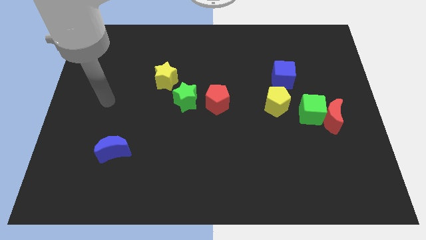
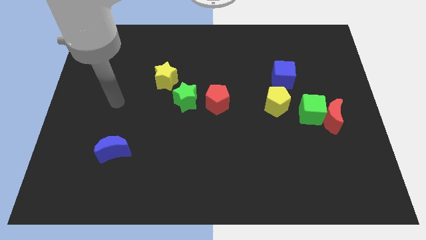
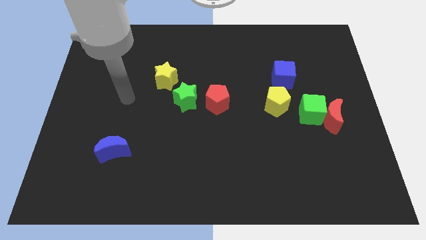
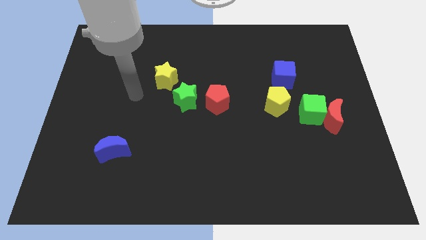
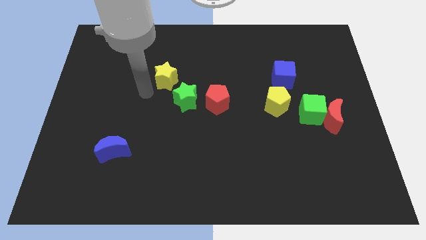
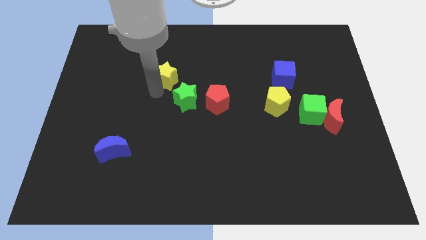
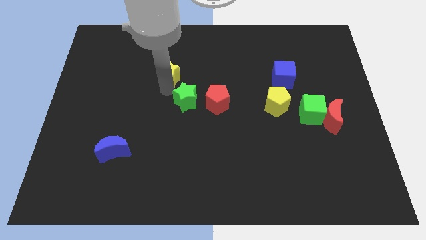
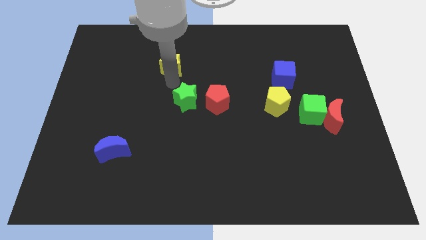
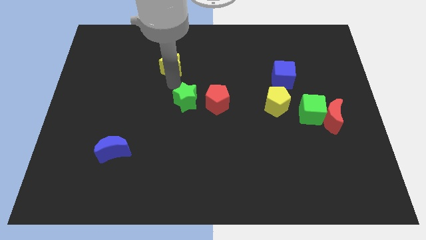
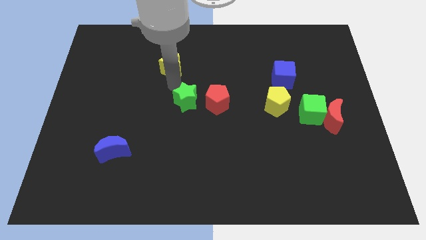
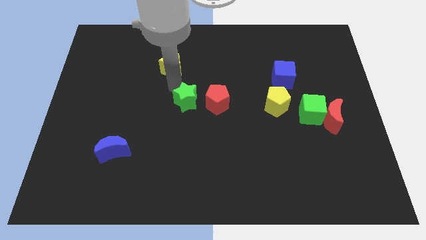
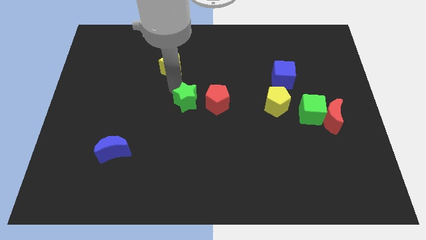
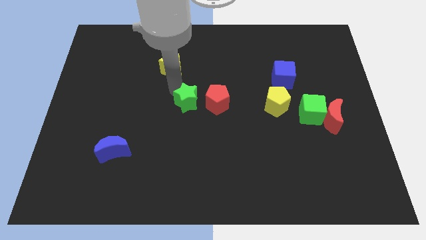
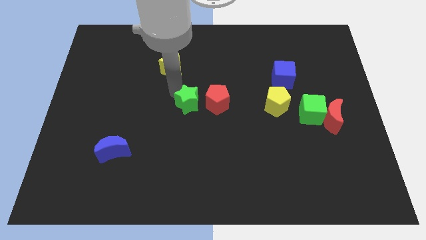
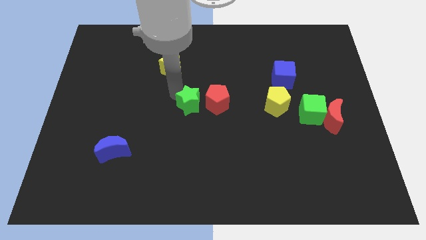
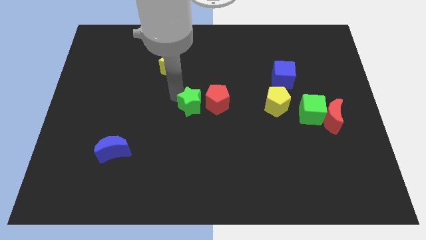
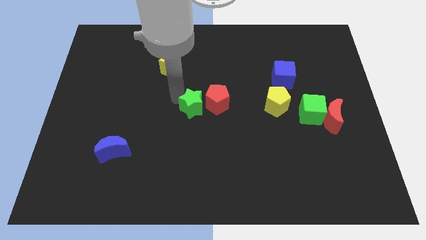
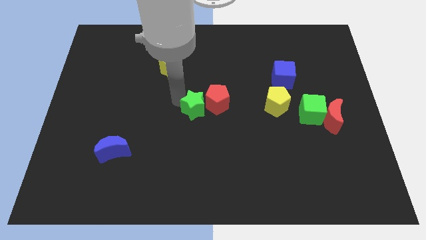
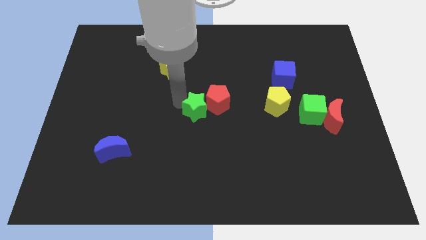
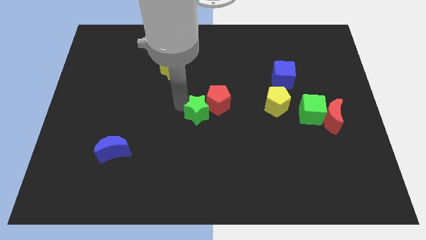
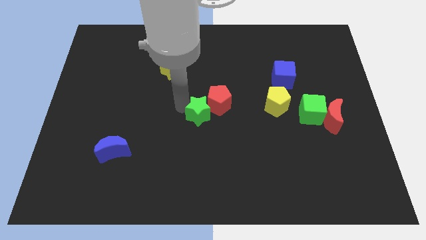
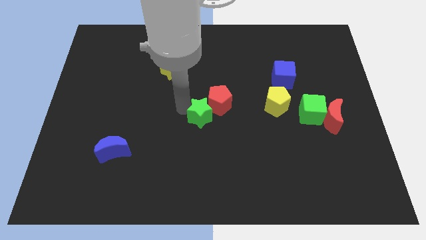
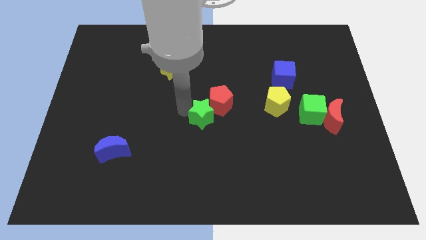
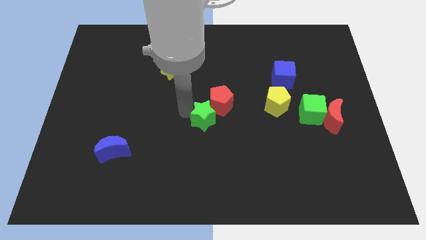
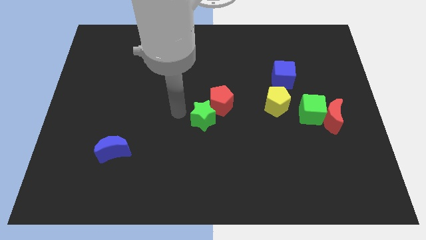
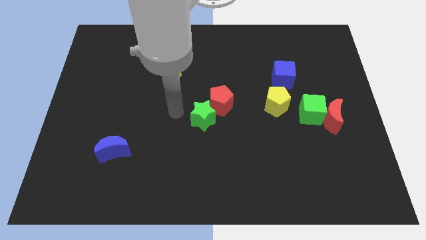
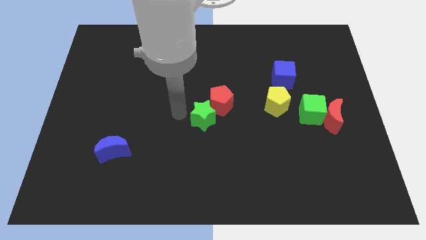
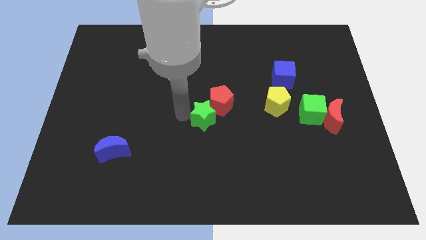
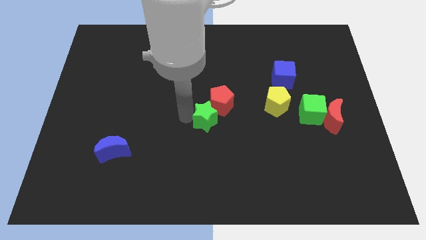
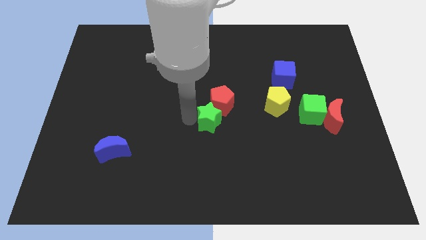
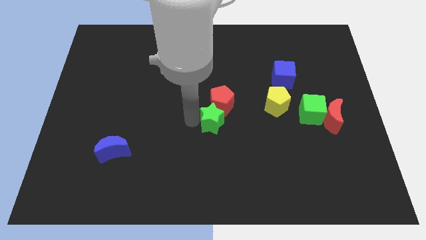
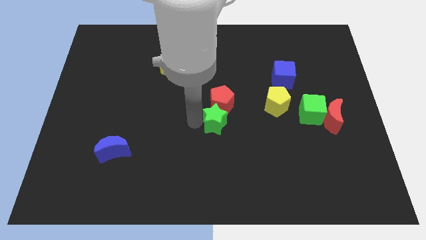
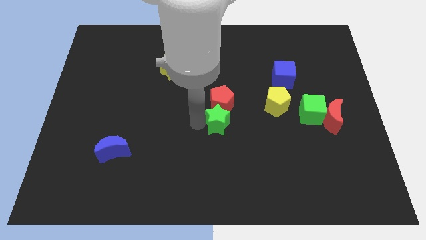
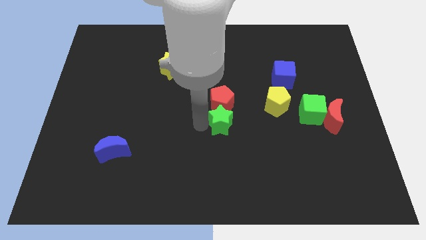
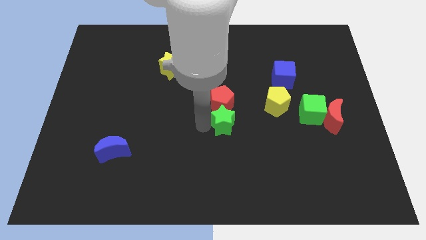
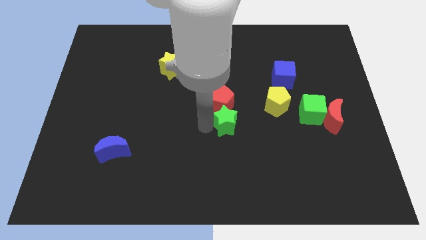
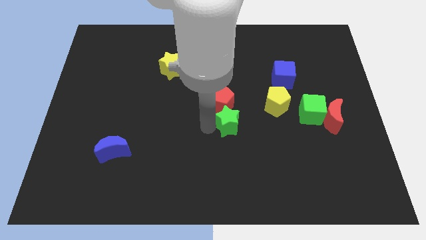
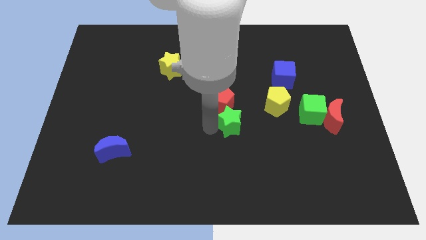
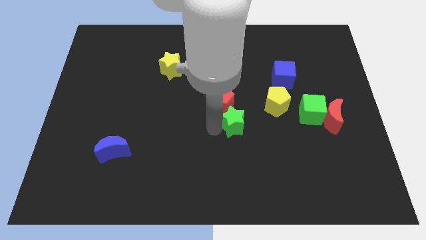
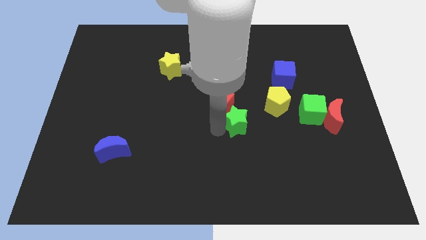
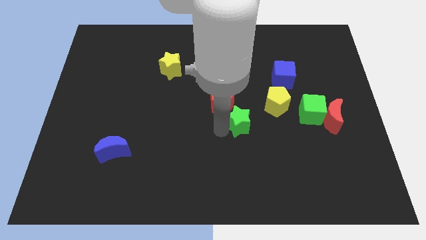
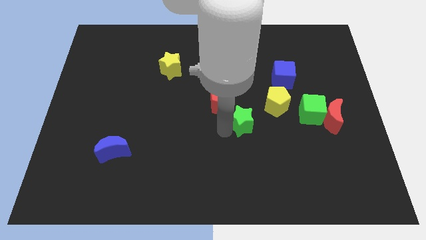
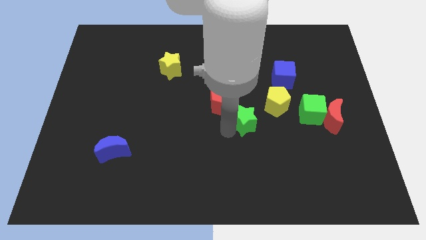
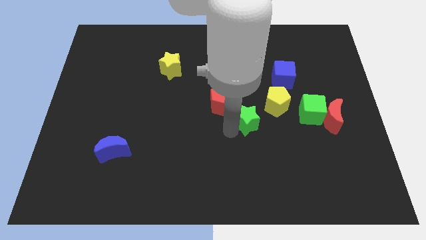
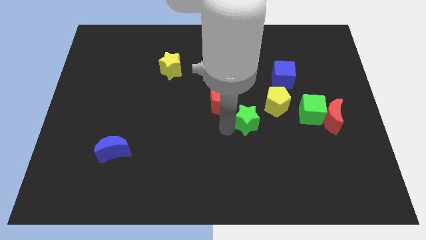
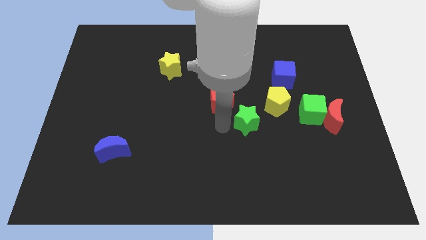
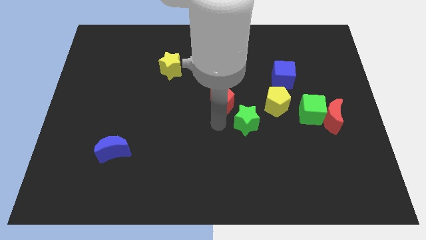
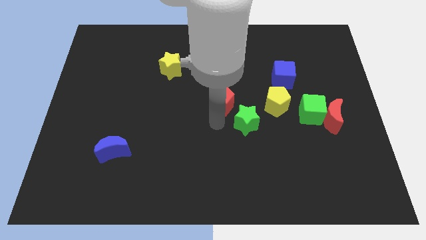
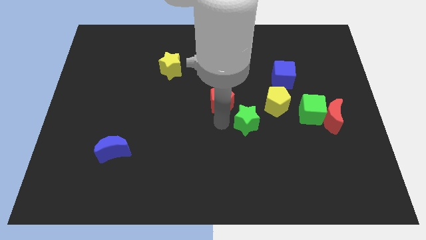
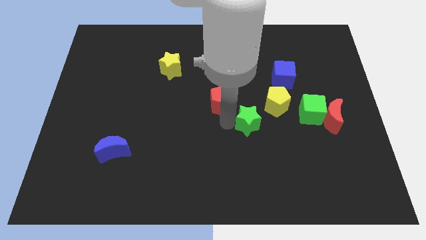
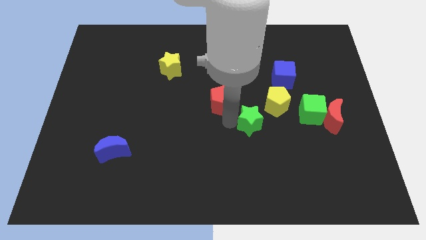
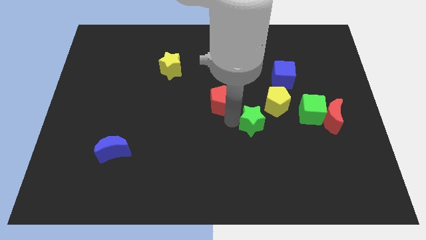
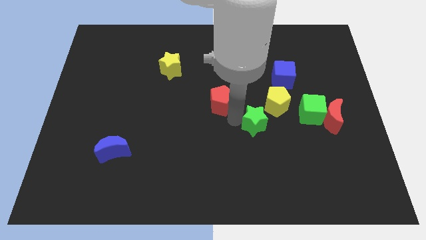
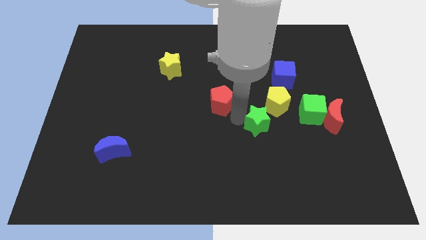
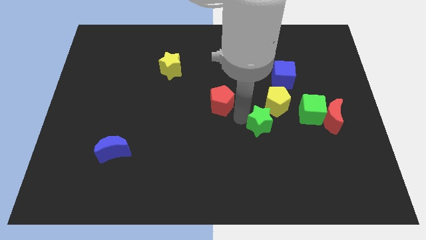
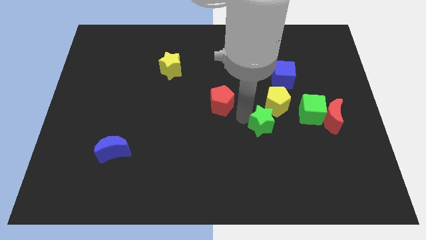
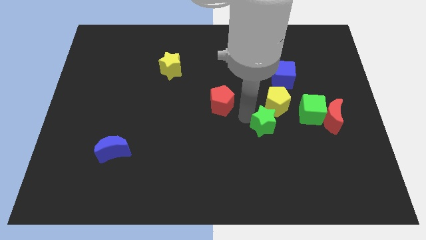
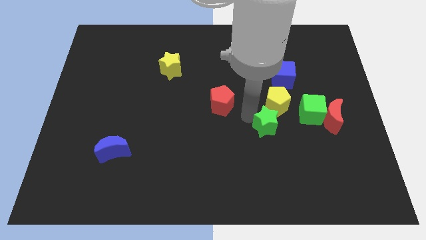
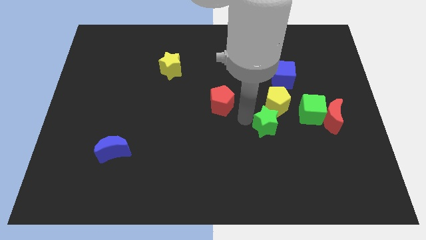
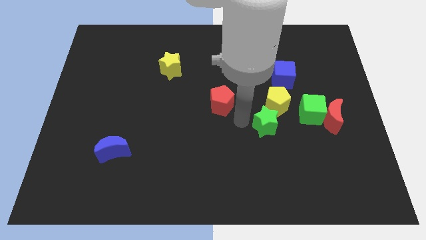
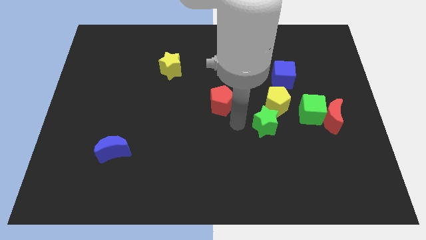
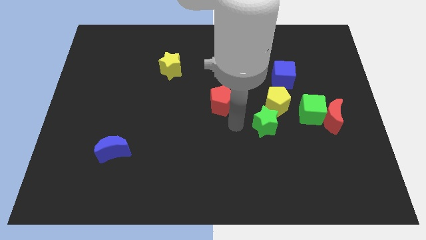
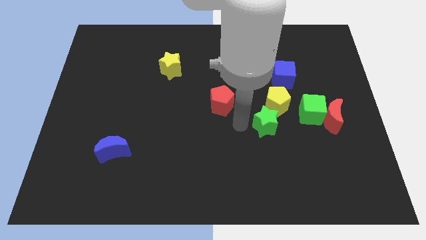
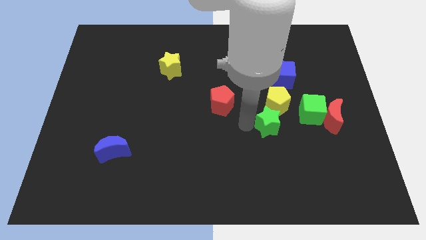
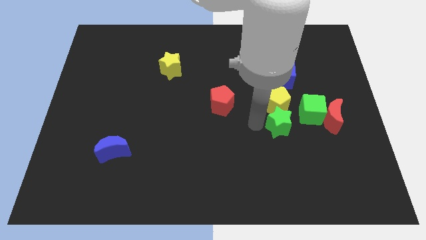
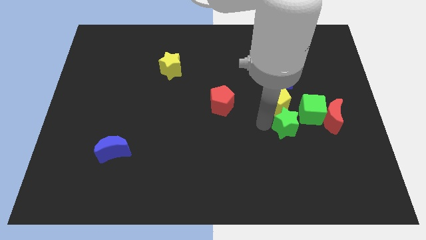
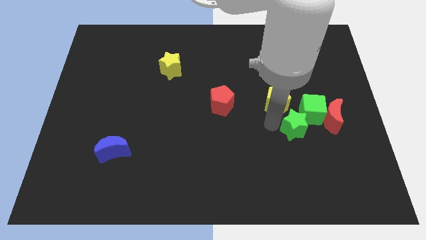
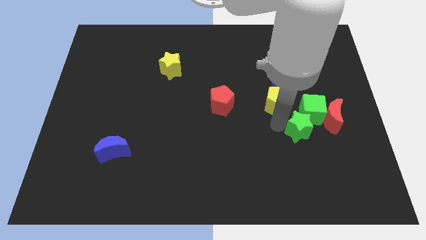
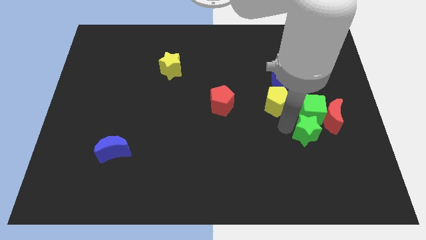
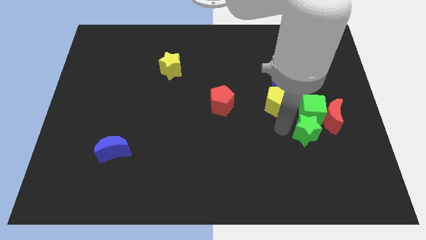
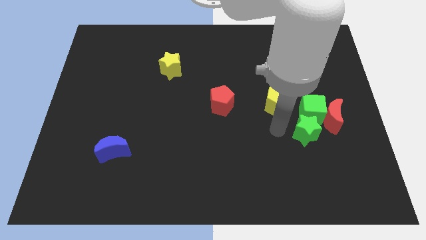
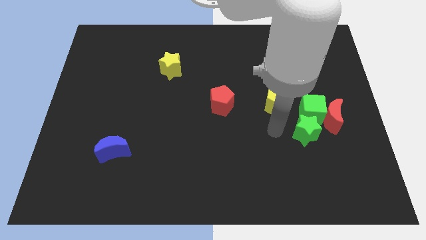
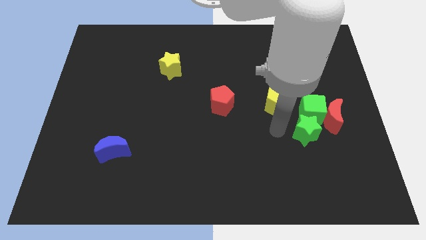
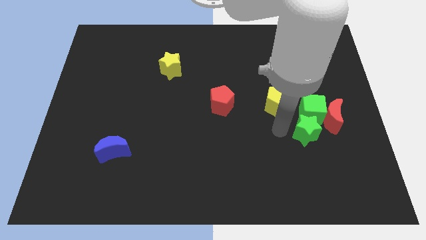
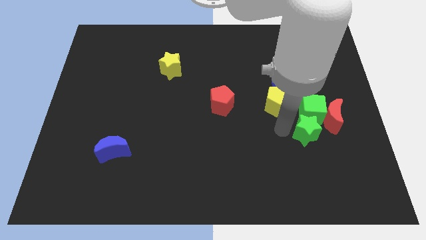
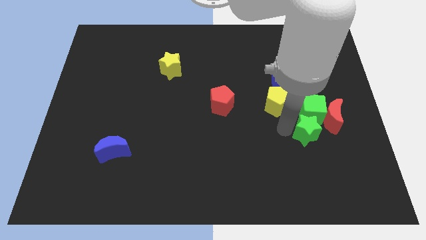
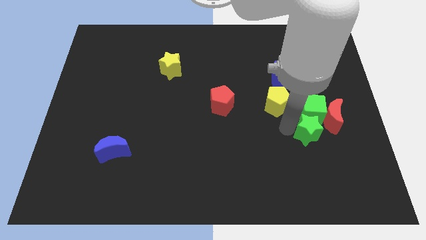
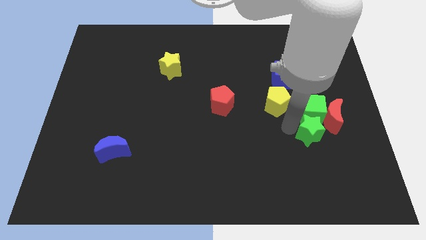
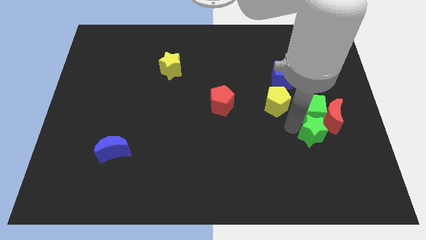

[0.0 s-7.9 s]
slide the green star diagonally down and to the right of the green cube
